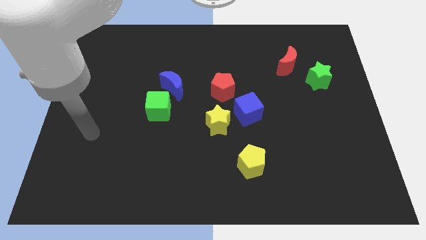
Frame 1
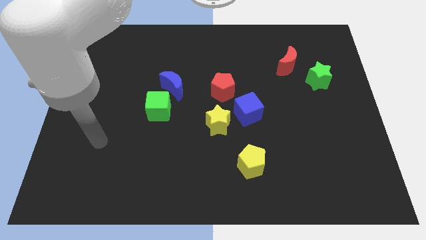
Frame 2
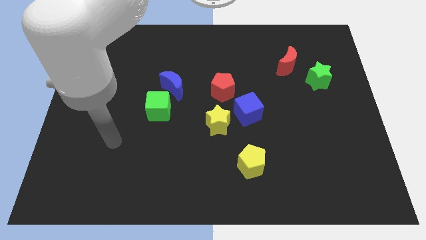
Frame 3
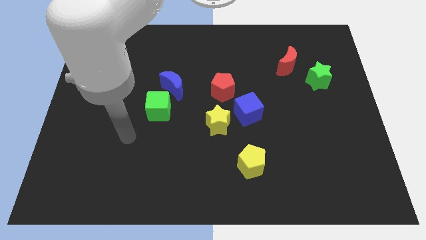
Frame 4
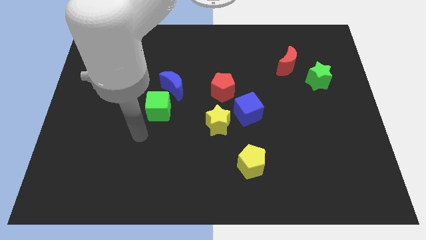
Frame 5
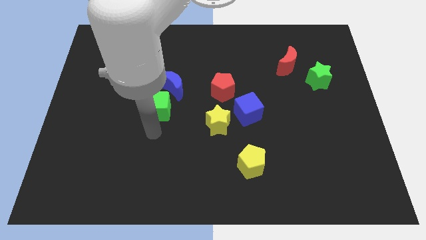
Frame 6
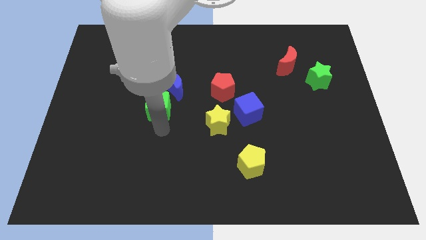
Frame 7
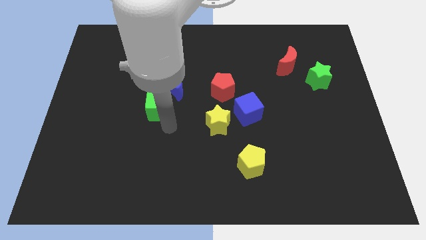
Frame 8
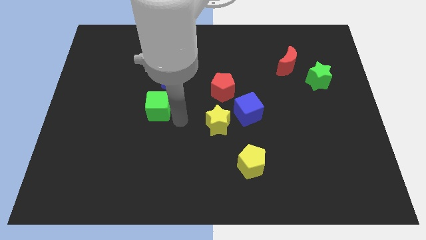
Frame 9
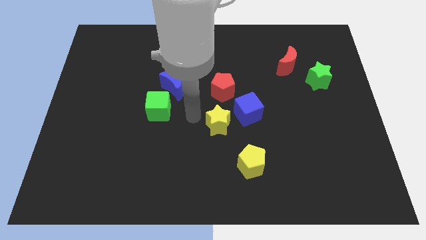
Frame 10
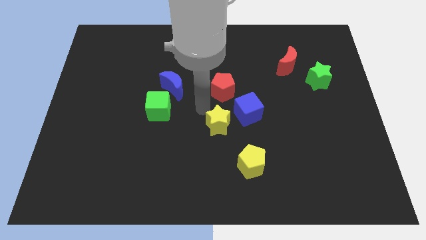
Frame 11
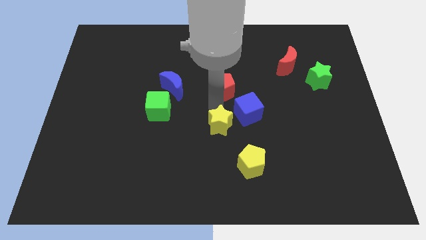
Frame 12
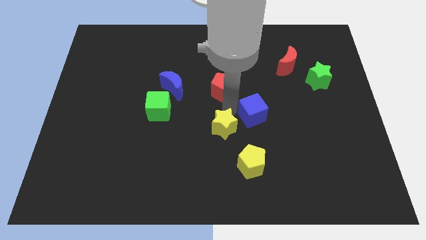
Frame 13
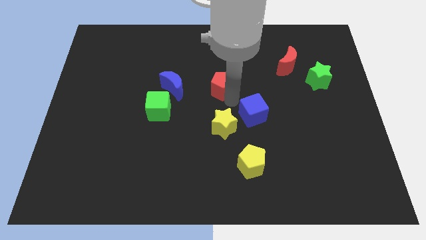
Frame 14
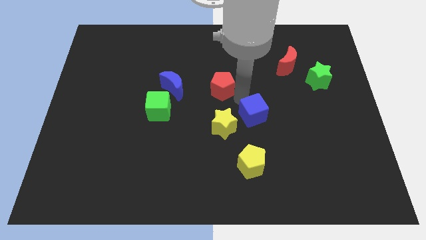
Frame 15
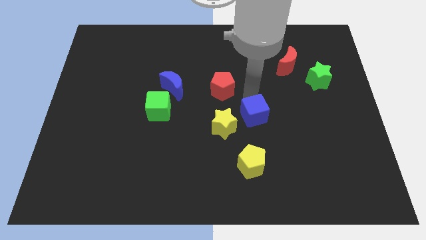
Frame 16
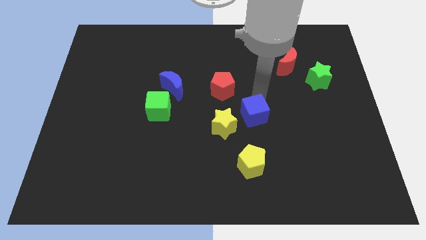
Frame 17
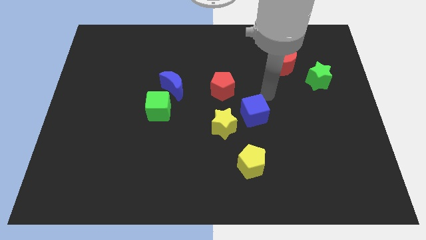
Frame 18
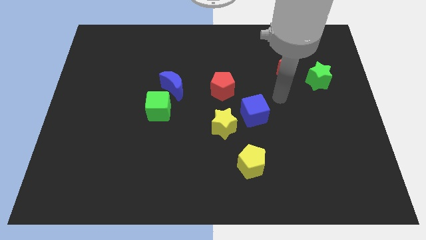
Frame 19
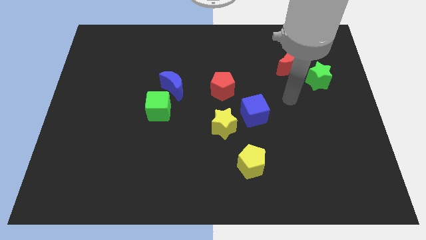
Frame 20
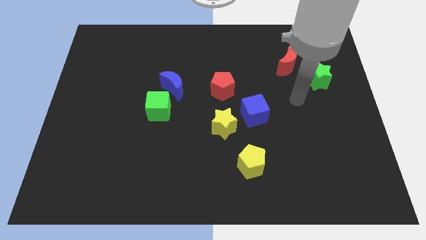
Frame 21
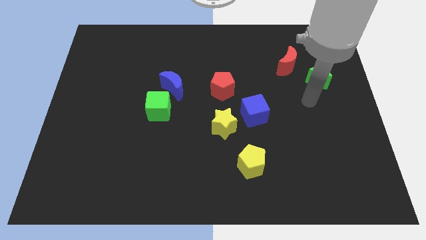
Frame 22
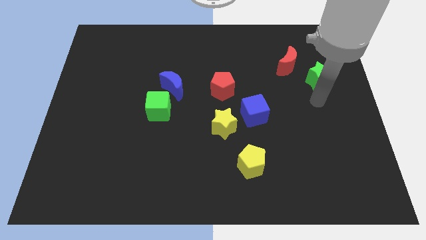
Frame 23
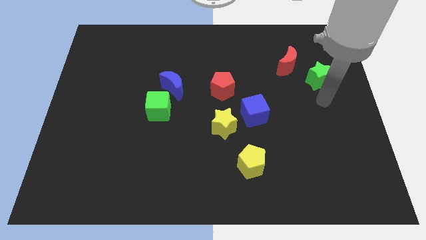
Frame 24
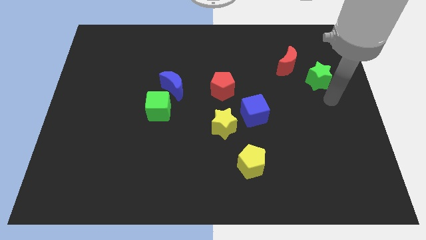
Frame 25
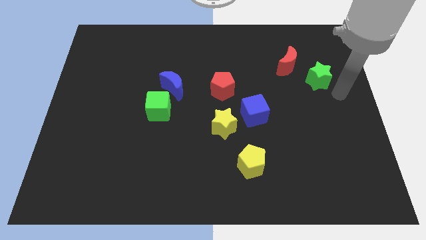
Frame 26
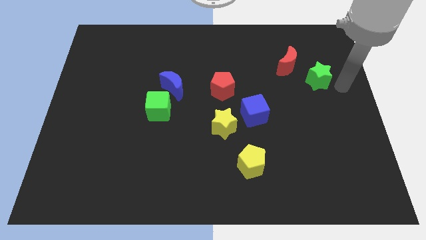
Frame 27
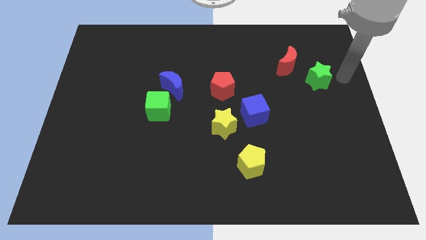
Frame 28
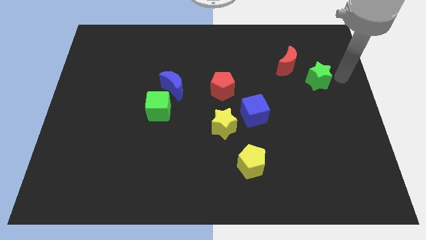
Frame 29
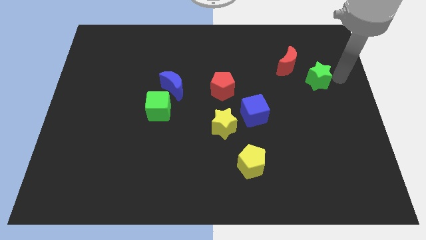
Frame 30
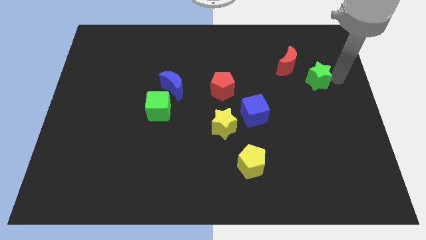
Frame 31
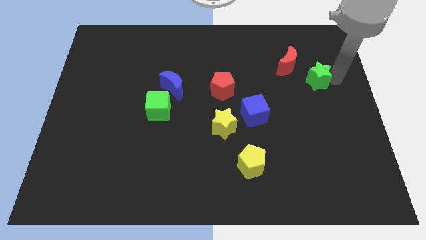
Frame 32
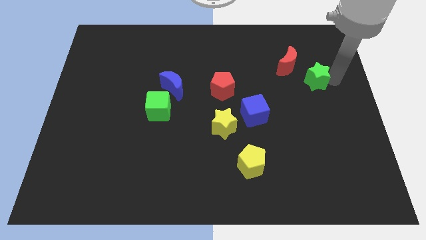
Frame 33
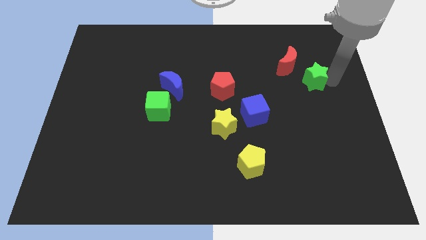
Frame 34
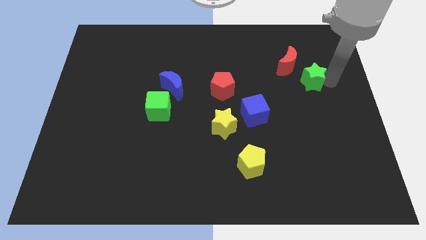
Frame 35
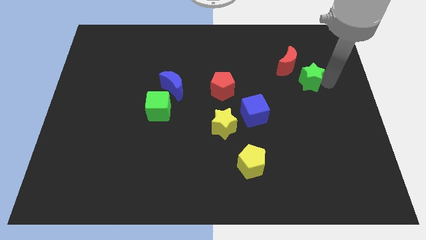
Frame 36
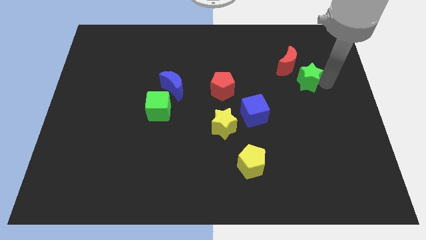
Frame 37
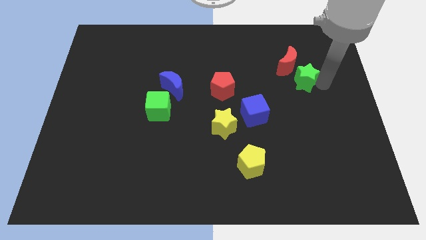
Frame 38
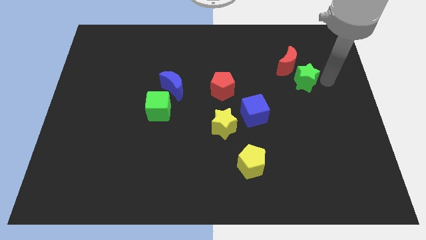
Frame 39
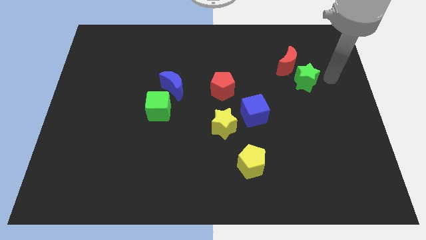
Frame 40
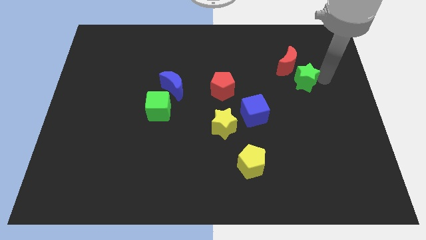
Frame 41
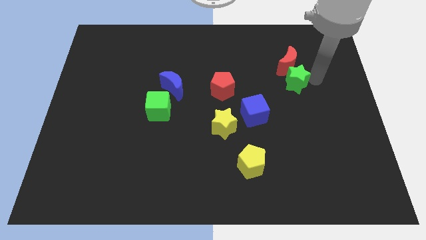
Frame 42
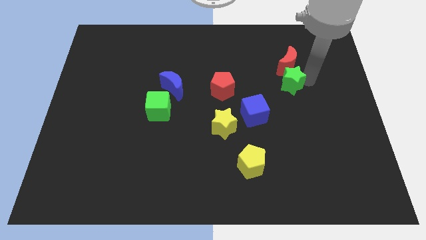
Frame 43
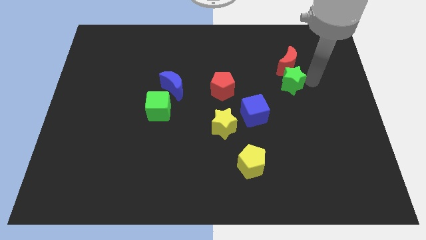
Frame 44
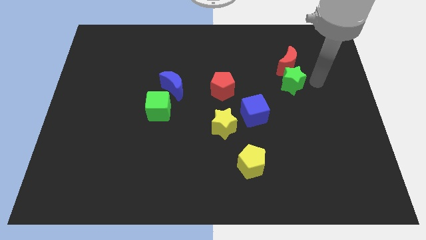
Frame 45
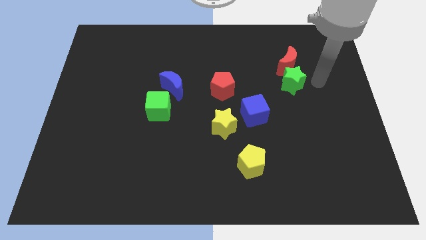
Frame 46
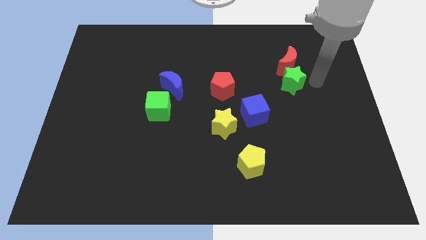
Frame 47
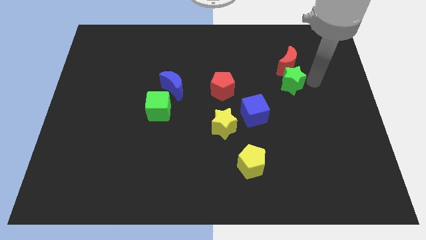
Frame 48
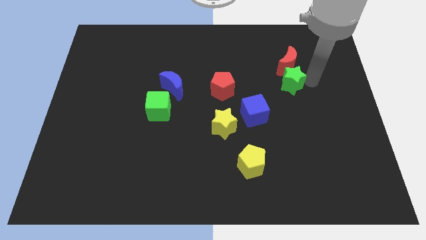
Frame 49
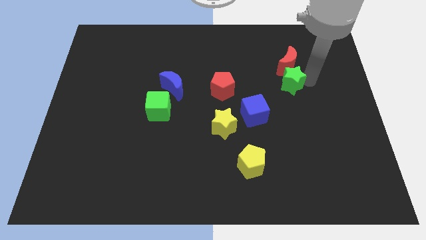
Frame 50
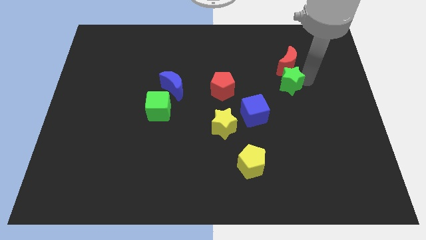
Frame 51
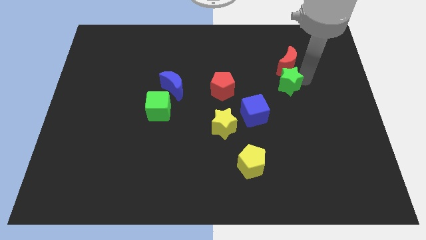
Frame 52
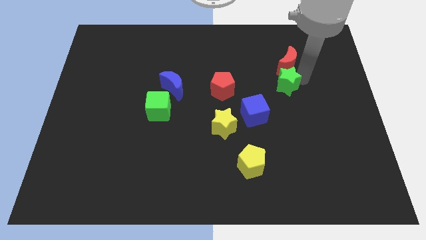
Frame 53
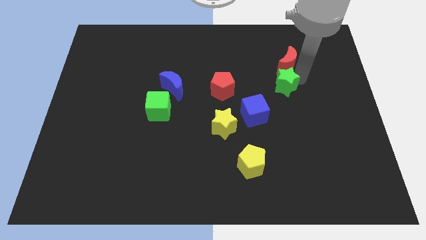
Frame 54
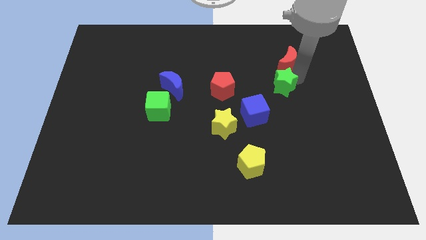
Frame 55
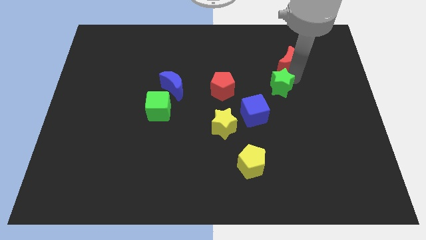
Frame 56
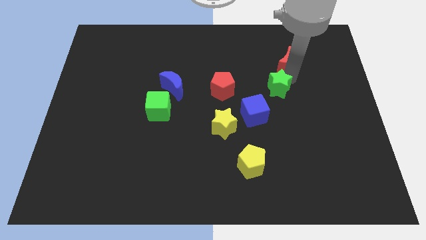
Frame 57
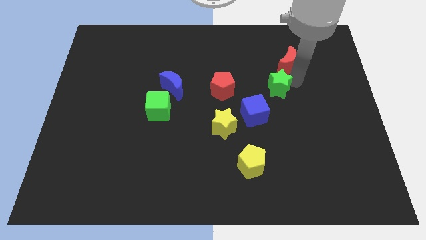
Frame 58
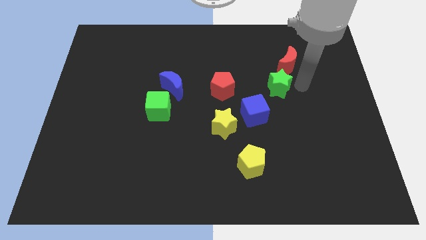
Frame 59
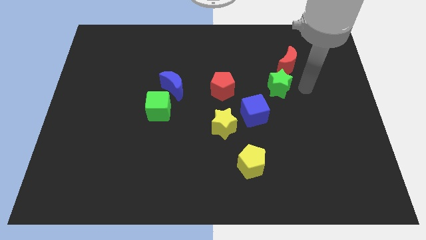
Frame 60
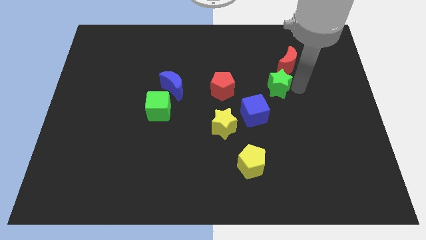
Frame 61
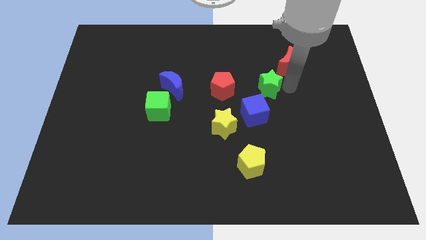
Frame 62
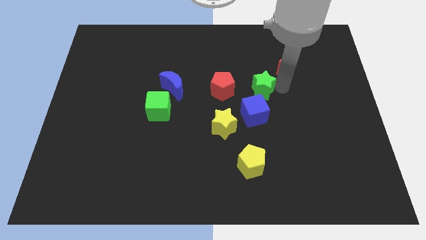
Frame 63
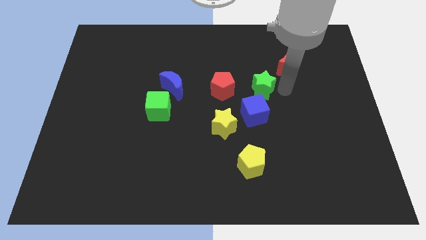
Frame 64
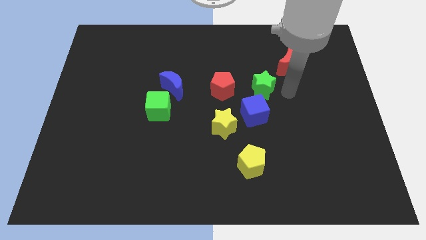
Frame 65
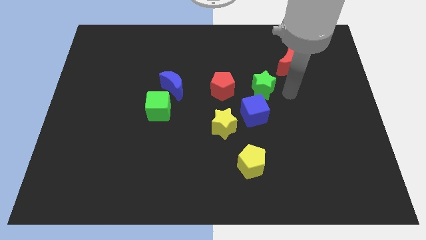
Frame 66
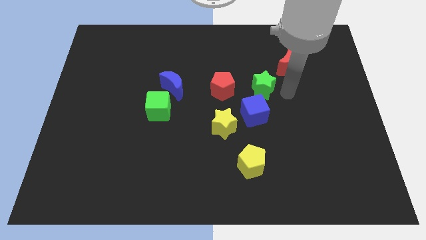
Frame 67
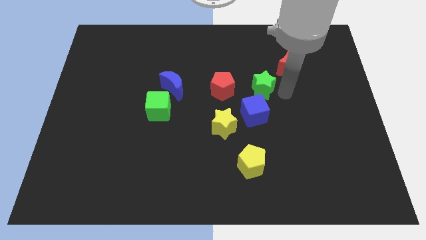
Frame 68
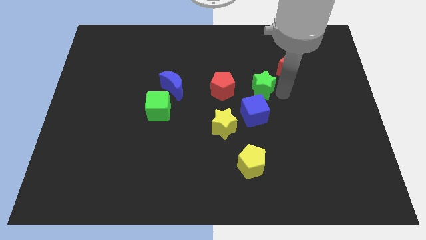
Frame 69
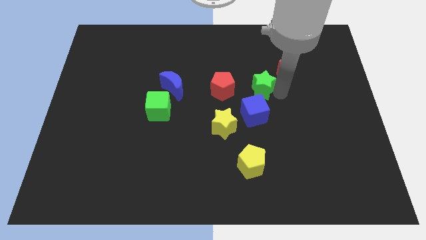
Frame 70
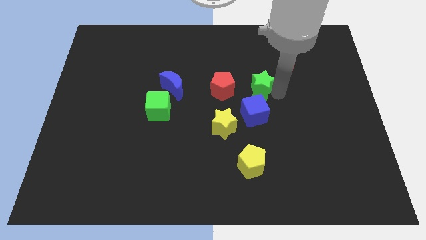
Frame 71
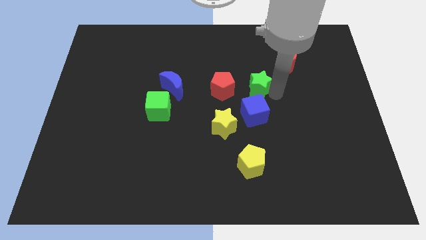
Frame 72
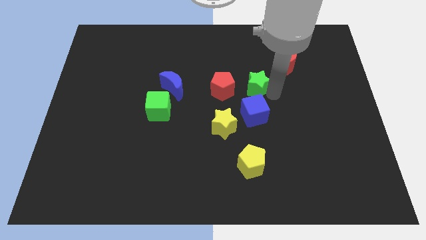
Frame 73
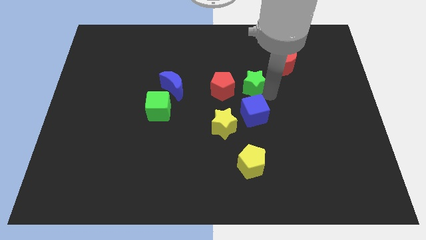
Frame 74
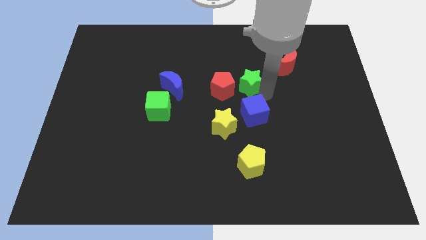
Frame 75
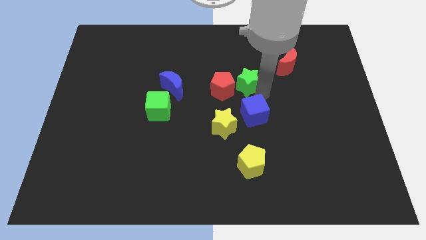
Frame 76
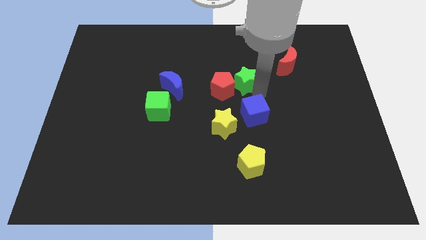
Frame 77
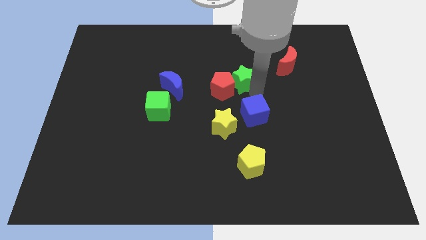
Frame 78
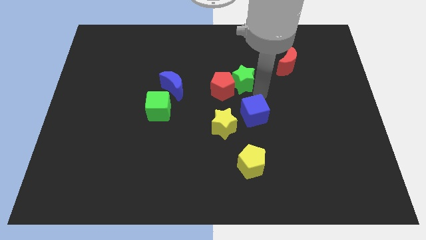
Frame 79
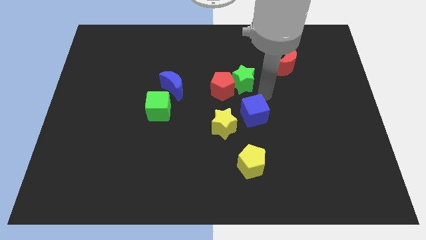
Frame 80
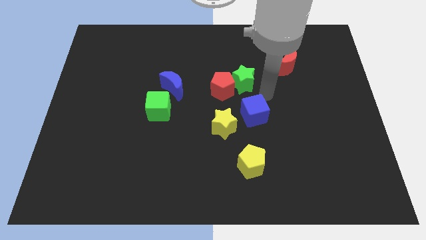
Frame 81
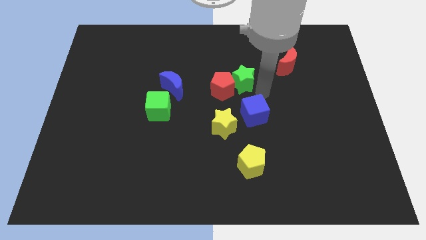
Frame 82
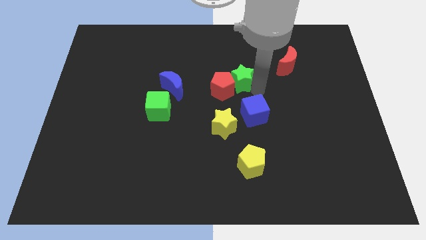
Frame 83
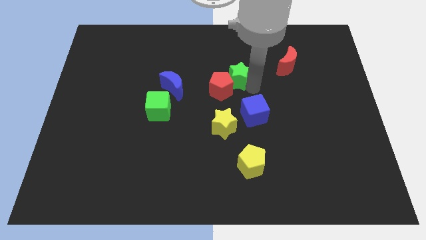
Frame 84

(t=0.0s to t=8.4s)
move the green star to the left

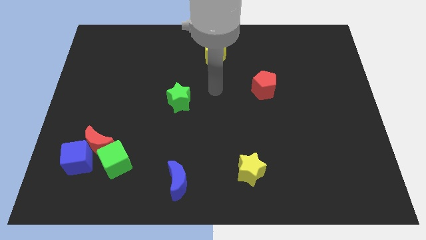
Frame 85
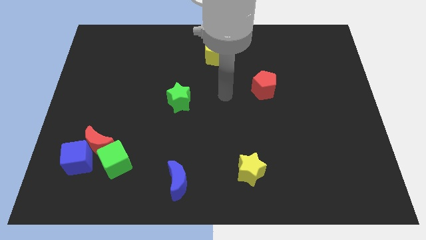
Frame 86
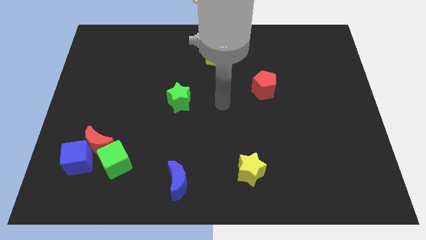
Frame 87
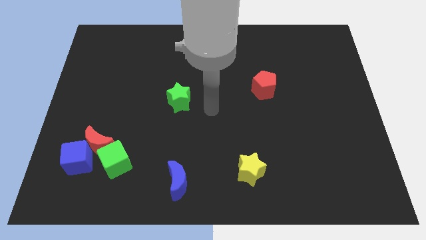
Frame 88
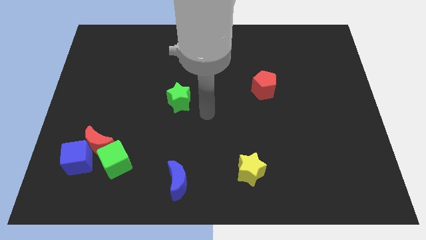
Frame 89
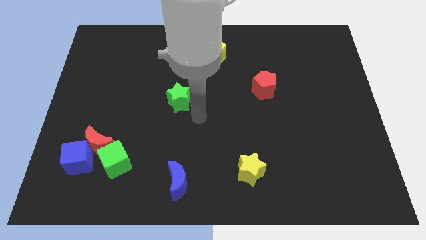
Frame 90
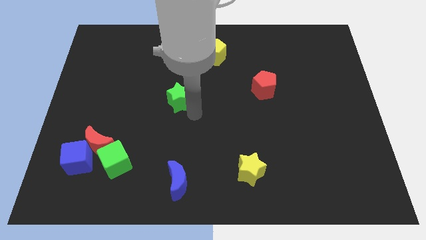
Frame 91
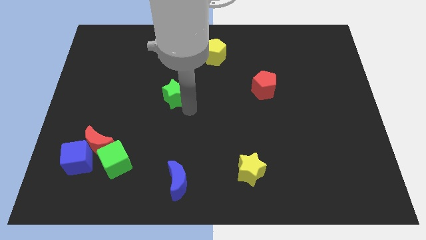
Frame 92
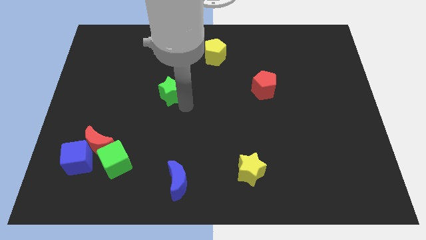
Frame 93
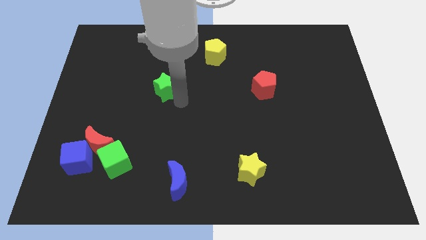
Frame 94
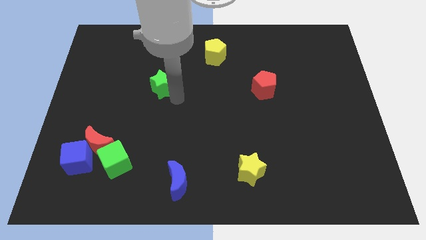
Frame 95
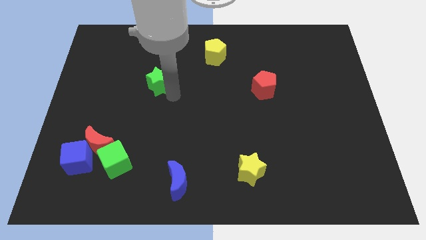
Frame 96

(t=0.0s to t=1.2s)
move the green star a little up and to the left diagonally
